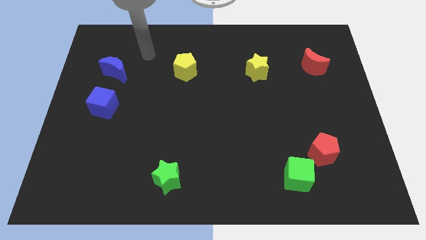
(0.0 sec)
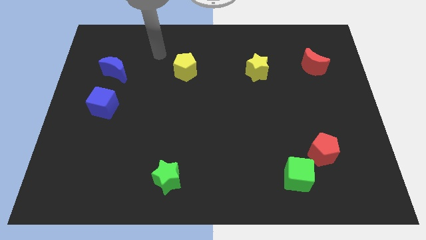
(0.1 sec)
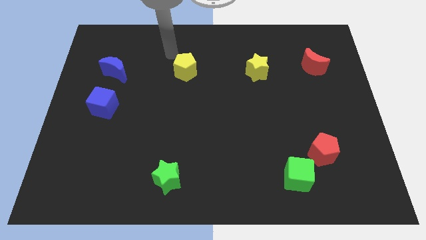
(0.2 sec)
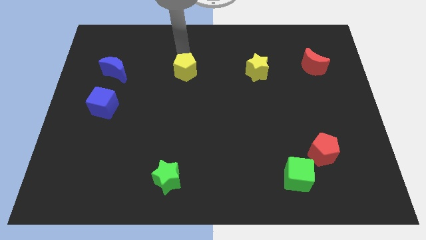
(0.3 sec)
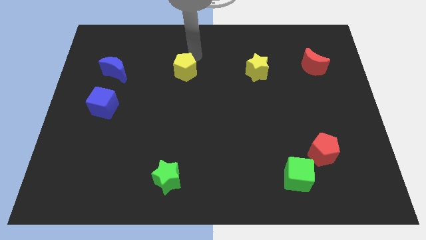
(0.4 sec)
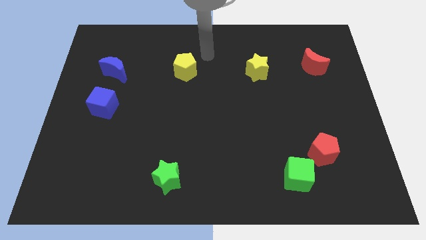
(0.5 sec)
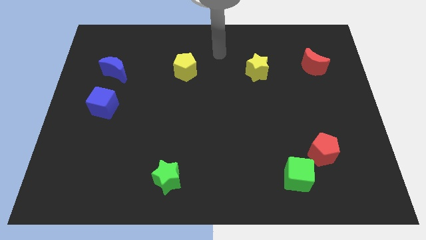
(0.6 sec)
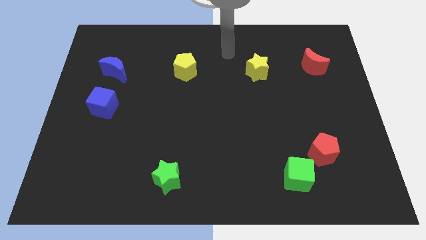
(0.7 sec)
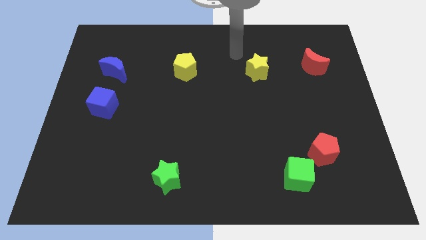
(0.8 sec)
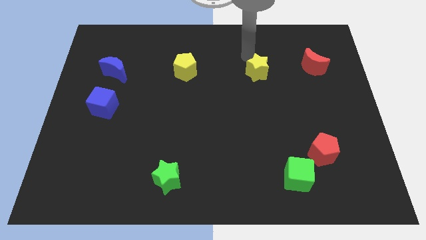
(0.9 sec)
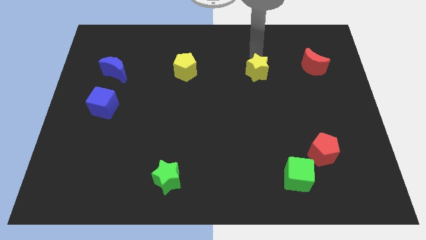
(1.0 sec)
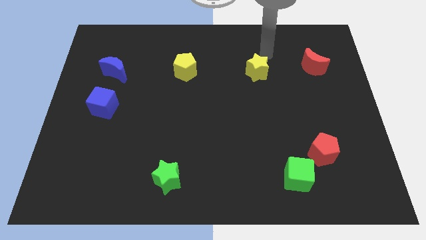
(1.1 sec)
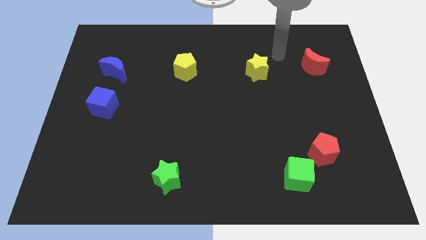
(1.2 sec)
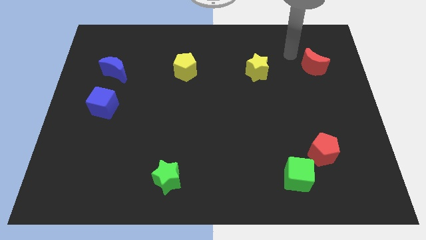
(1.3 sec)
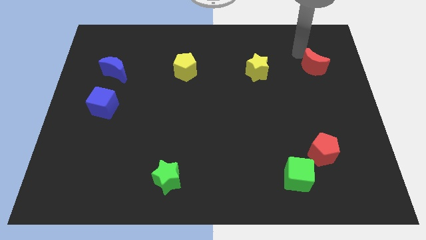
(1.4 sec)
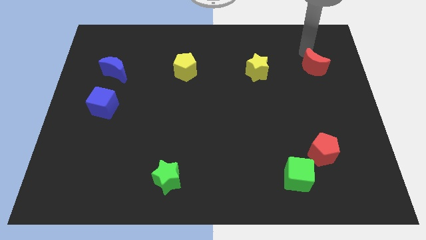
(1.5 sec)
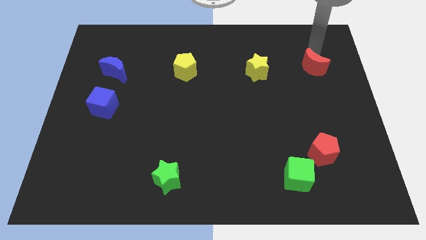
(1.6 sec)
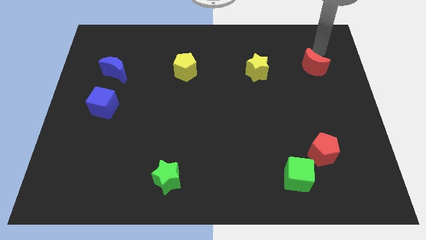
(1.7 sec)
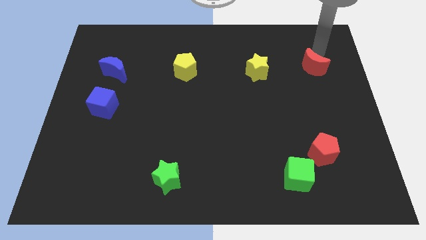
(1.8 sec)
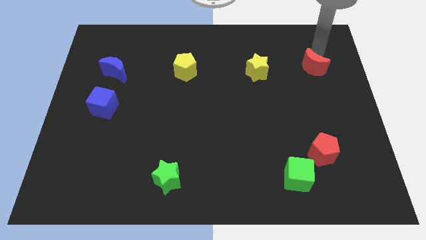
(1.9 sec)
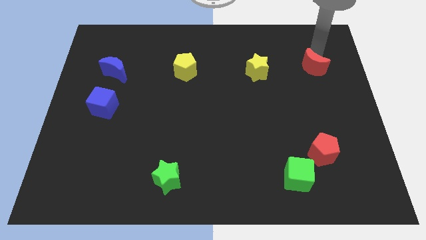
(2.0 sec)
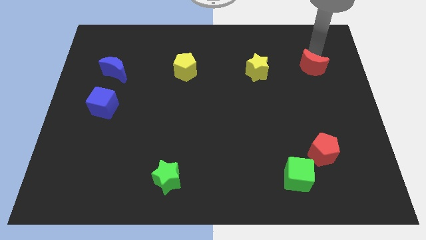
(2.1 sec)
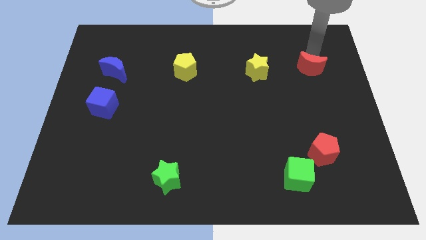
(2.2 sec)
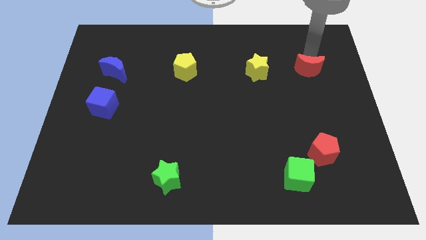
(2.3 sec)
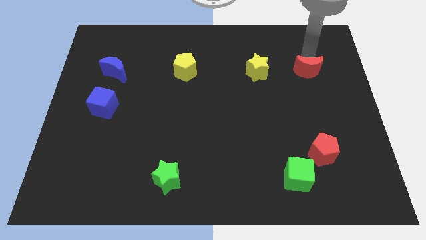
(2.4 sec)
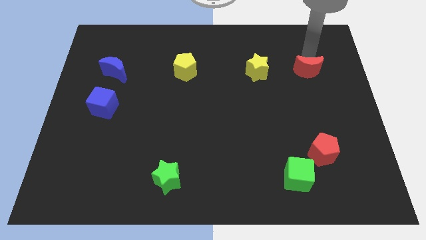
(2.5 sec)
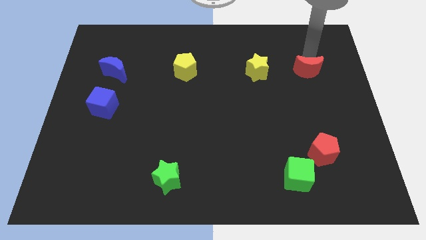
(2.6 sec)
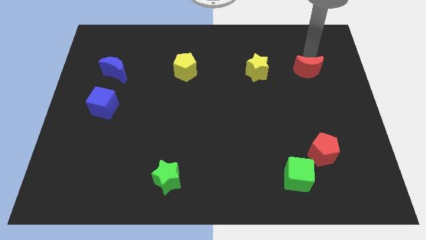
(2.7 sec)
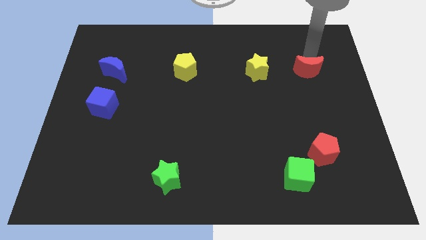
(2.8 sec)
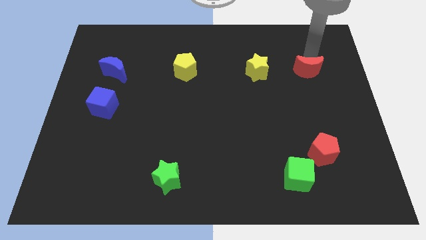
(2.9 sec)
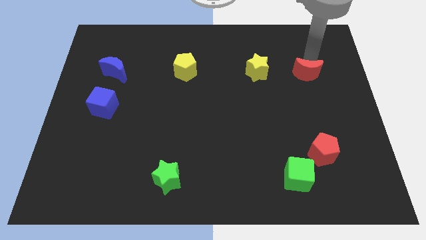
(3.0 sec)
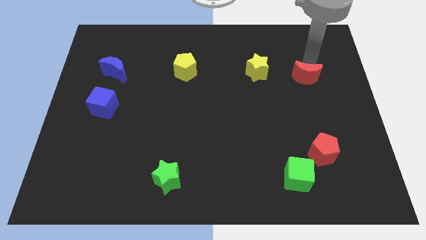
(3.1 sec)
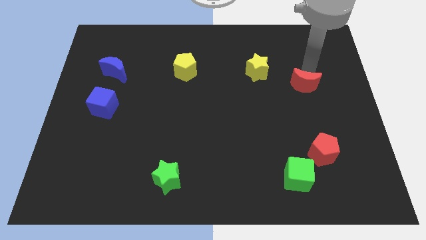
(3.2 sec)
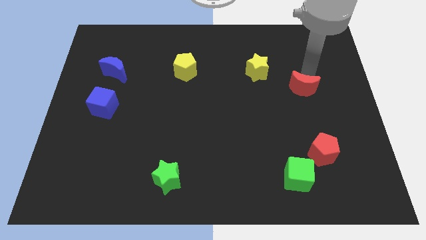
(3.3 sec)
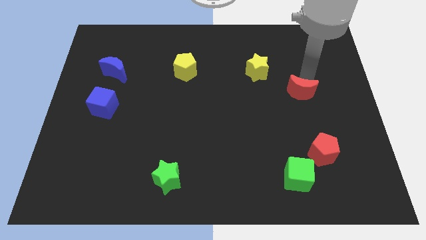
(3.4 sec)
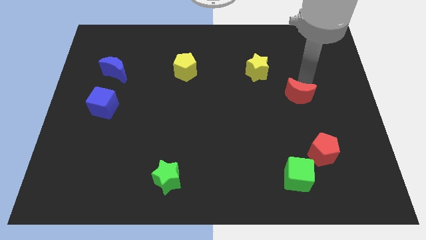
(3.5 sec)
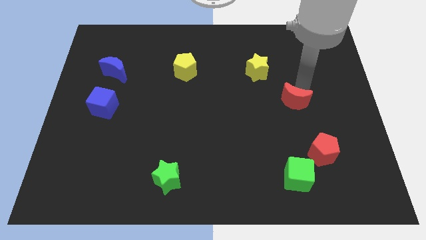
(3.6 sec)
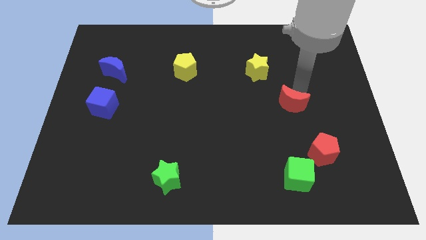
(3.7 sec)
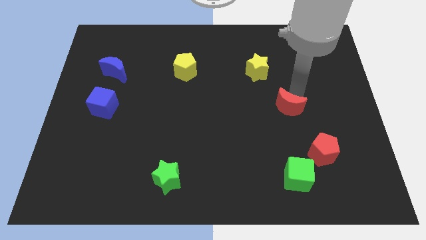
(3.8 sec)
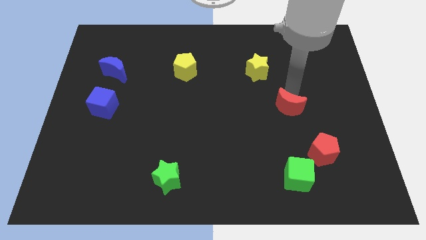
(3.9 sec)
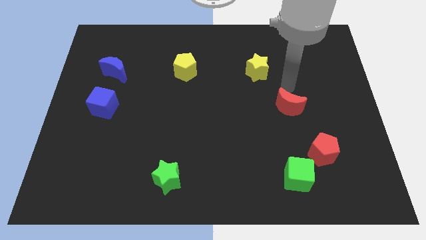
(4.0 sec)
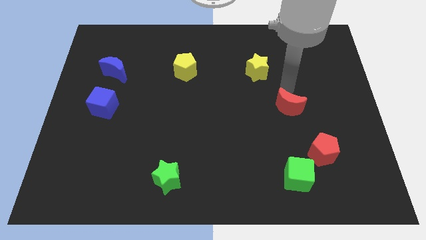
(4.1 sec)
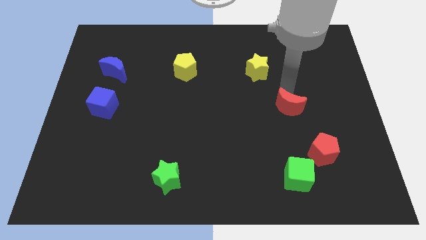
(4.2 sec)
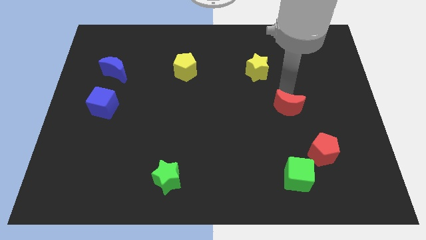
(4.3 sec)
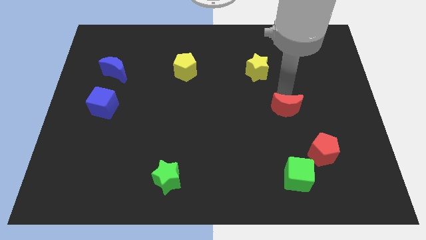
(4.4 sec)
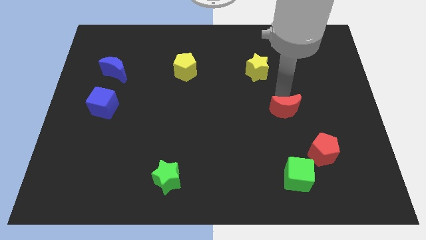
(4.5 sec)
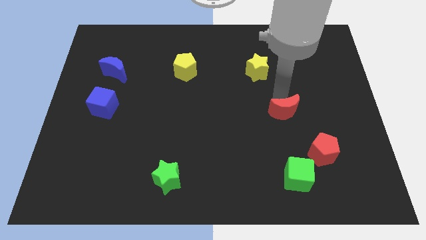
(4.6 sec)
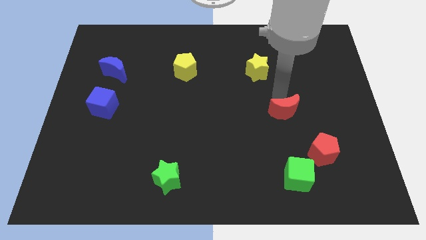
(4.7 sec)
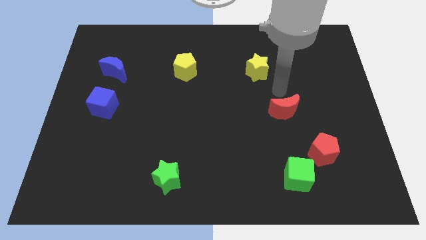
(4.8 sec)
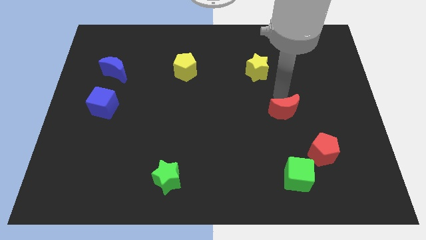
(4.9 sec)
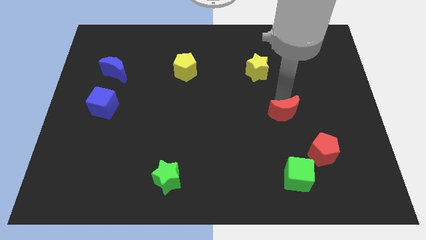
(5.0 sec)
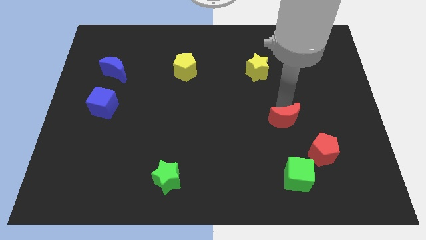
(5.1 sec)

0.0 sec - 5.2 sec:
put the red moon to the top of the green cube

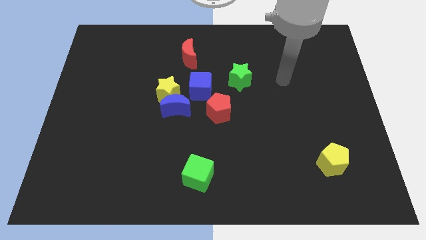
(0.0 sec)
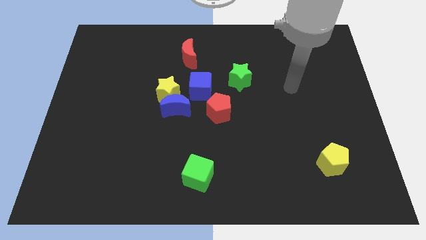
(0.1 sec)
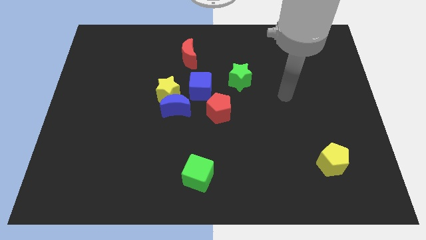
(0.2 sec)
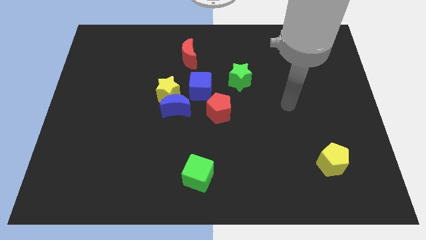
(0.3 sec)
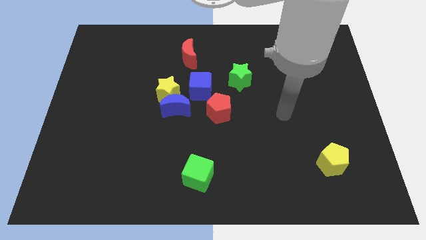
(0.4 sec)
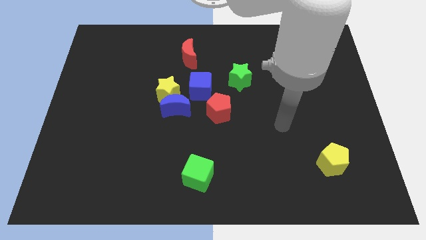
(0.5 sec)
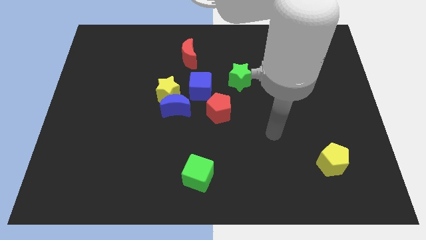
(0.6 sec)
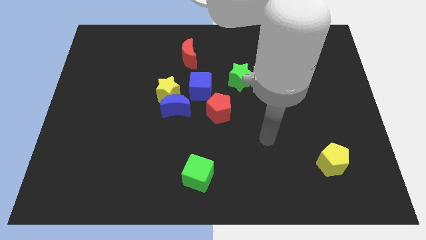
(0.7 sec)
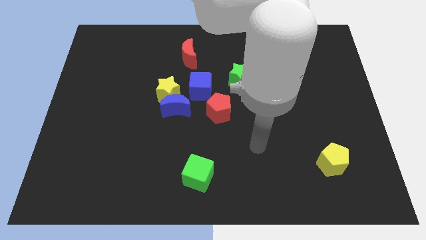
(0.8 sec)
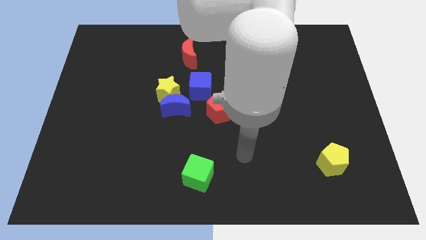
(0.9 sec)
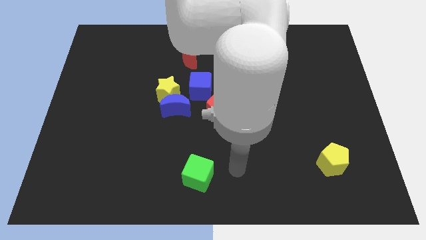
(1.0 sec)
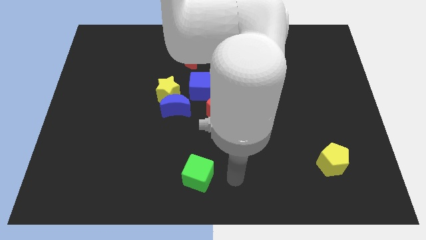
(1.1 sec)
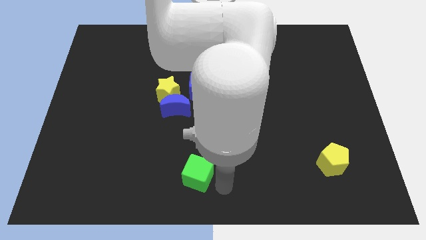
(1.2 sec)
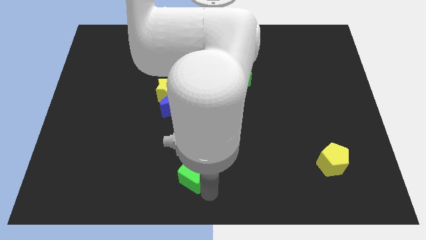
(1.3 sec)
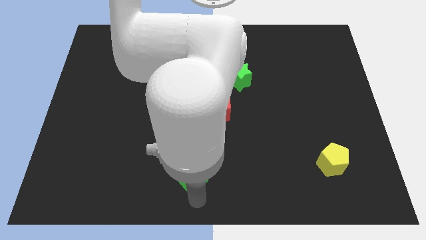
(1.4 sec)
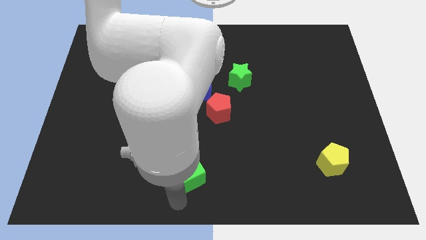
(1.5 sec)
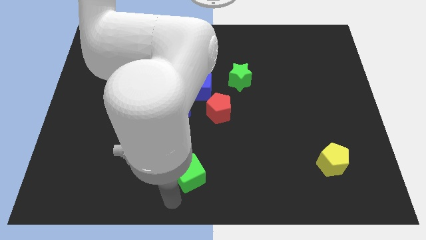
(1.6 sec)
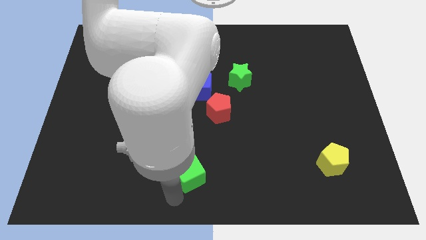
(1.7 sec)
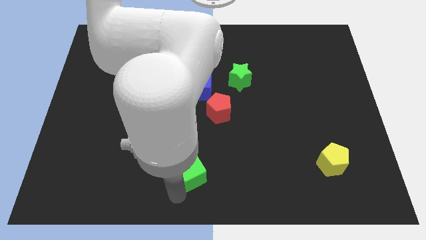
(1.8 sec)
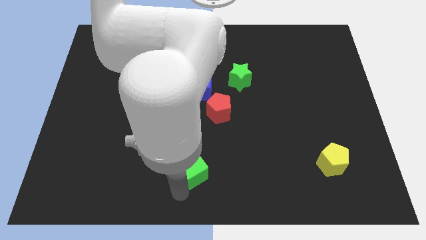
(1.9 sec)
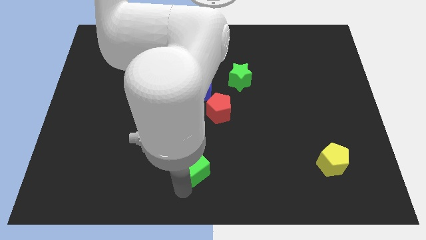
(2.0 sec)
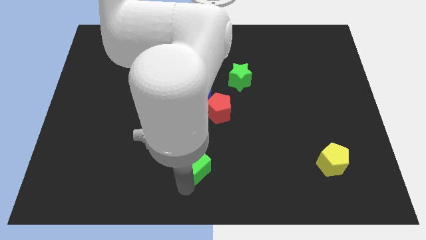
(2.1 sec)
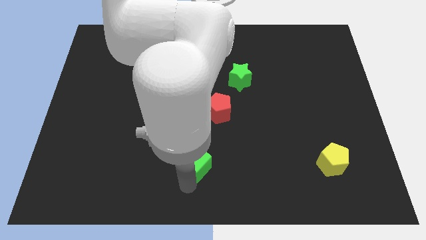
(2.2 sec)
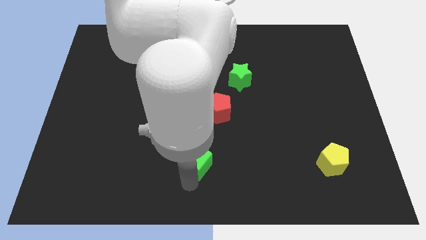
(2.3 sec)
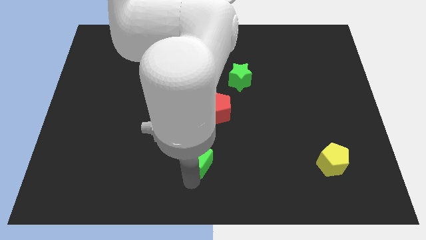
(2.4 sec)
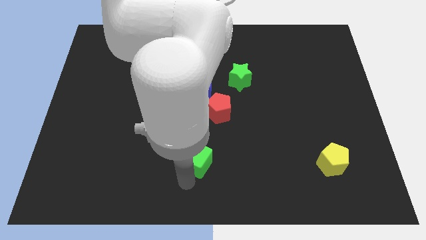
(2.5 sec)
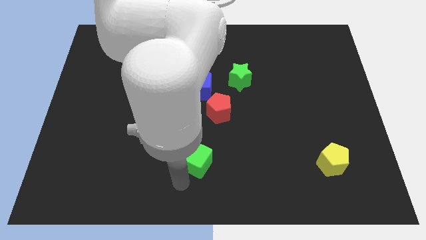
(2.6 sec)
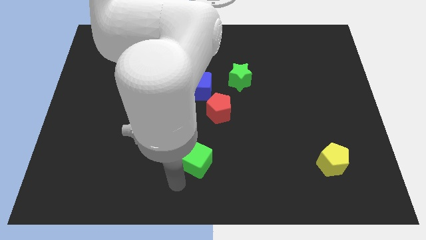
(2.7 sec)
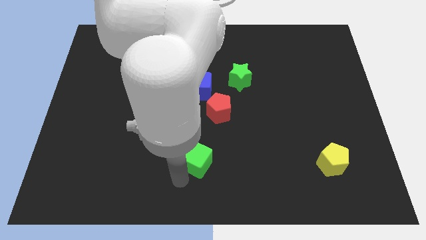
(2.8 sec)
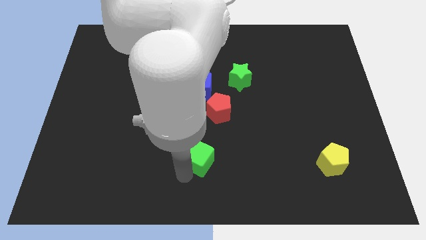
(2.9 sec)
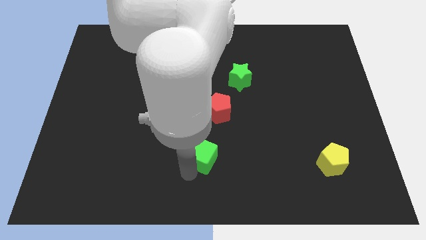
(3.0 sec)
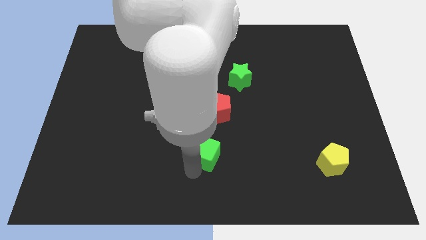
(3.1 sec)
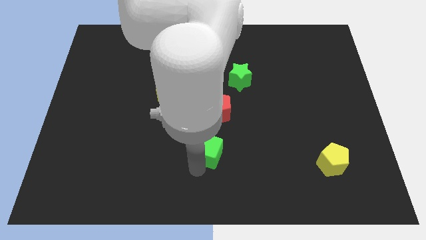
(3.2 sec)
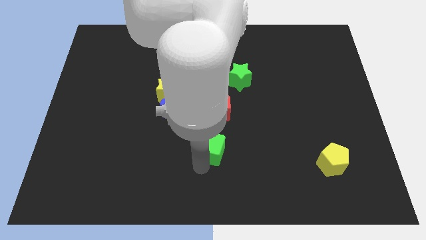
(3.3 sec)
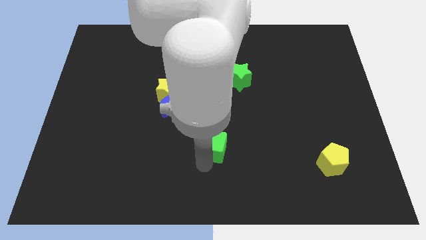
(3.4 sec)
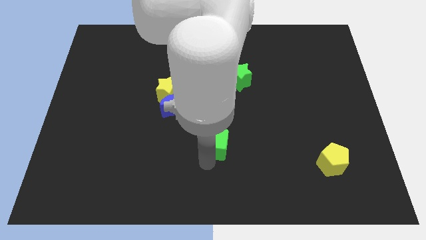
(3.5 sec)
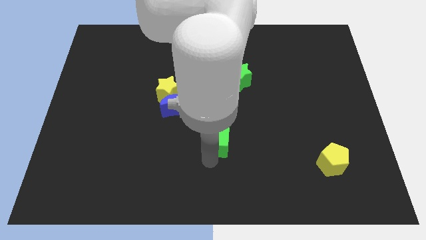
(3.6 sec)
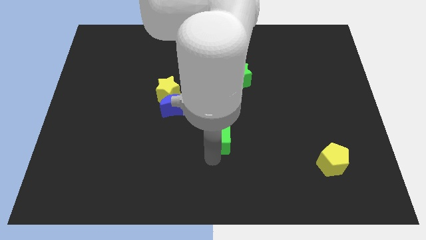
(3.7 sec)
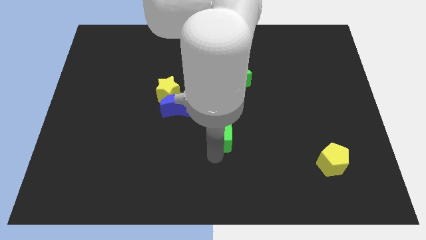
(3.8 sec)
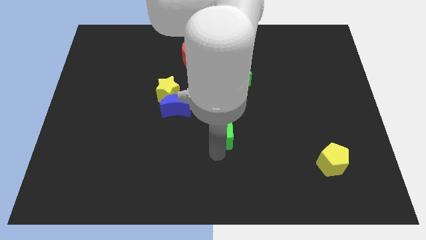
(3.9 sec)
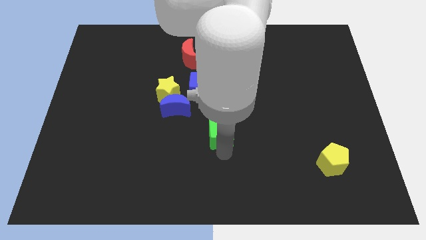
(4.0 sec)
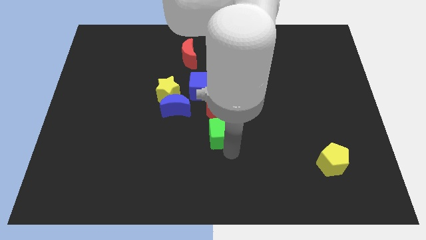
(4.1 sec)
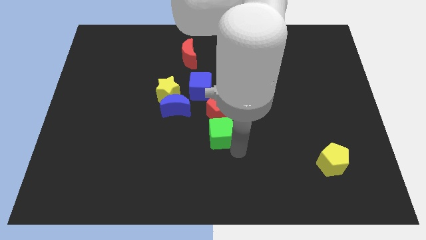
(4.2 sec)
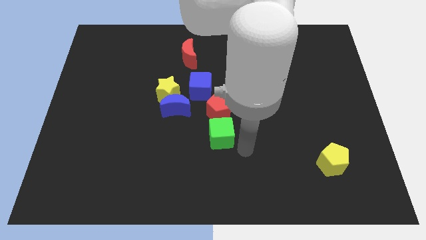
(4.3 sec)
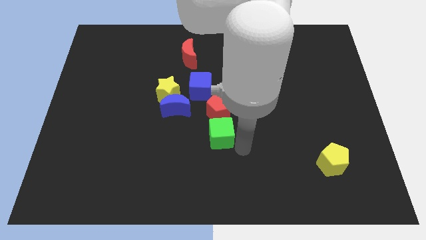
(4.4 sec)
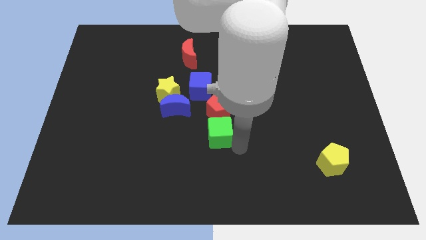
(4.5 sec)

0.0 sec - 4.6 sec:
slide the green cube to the bottom side of the blue cube
